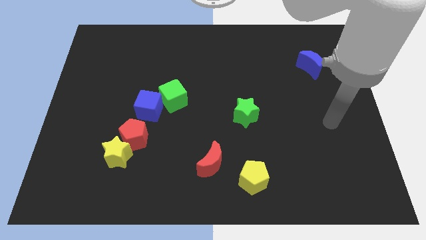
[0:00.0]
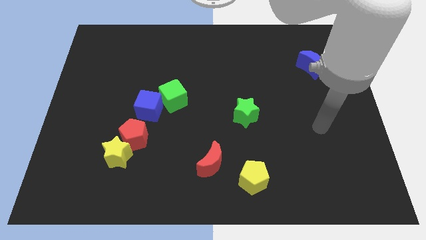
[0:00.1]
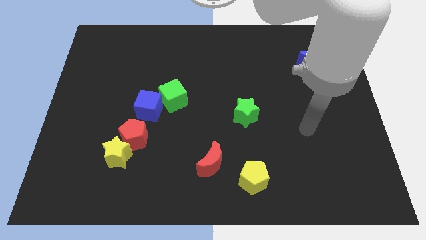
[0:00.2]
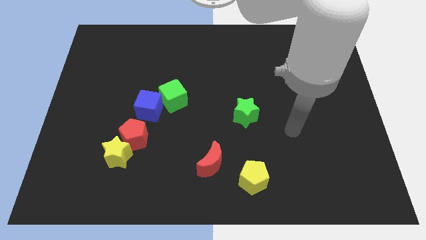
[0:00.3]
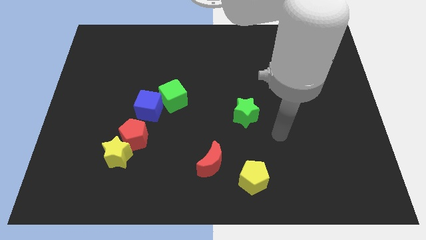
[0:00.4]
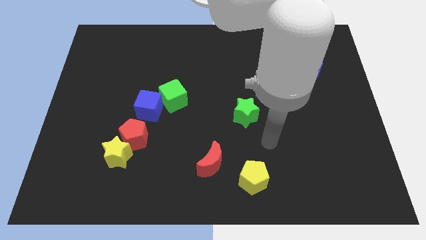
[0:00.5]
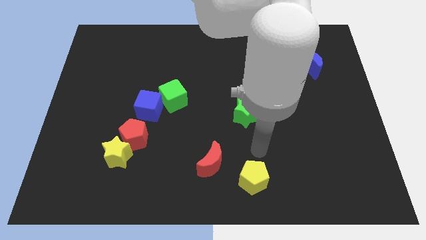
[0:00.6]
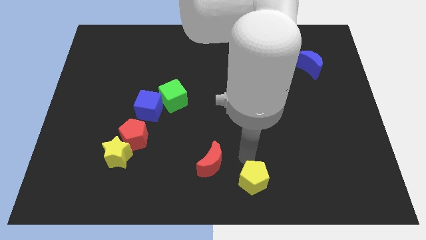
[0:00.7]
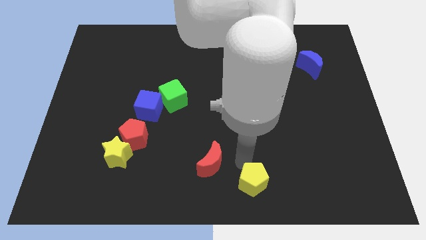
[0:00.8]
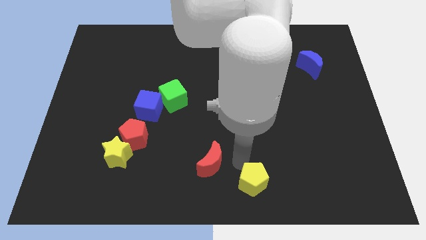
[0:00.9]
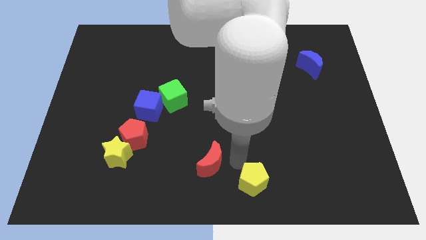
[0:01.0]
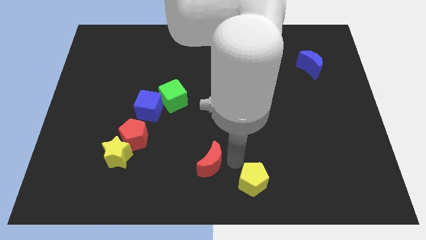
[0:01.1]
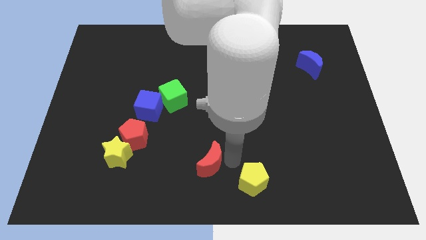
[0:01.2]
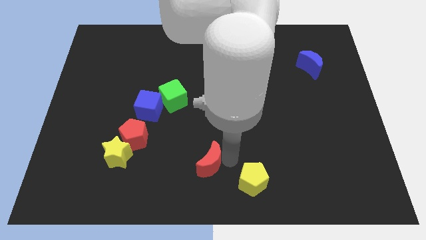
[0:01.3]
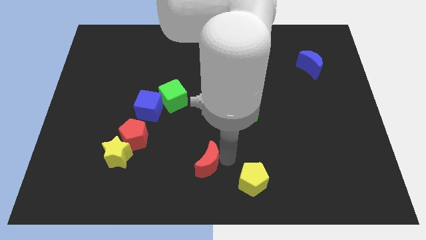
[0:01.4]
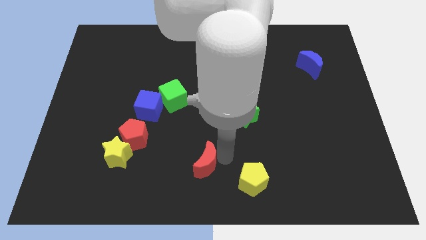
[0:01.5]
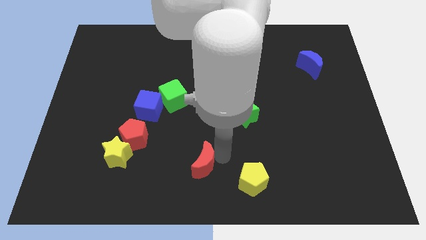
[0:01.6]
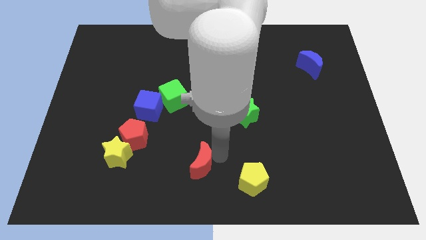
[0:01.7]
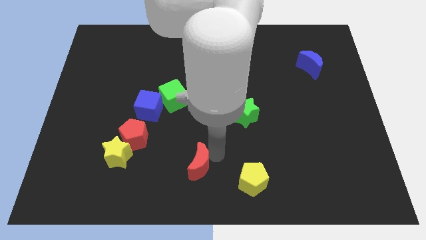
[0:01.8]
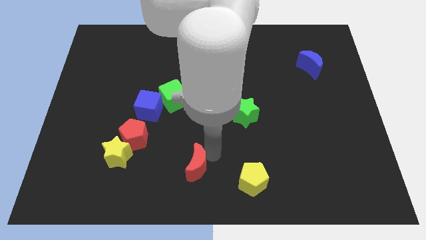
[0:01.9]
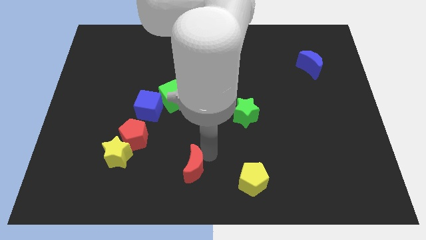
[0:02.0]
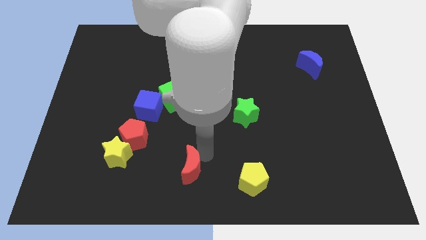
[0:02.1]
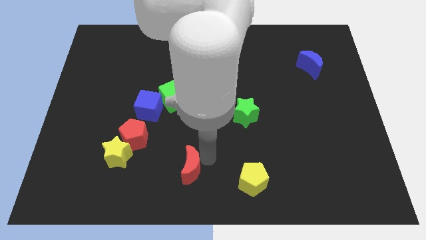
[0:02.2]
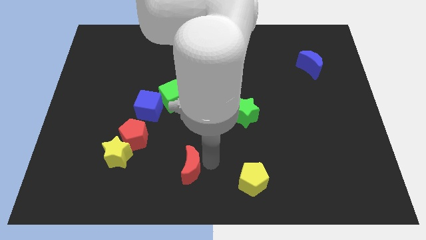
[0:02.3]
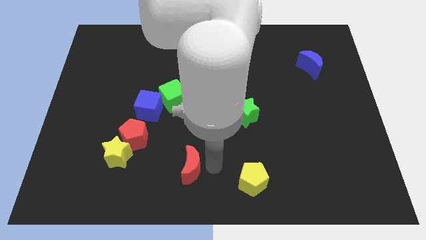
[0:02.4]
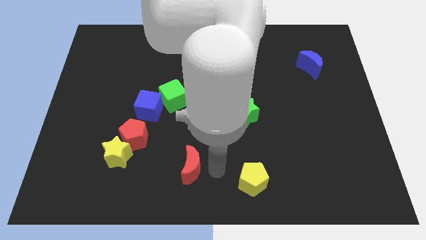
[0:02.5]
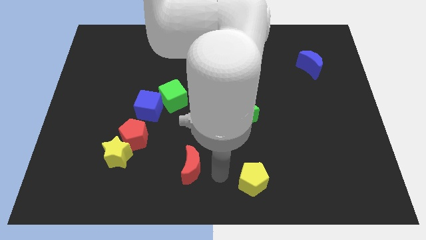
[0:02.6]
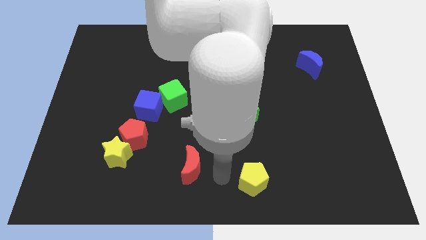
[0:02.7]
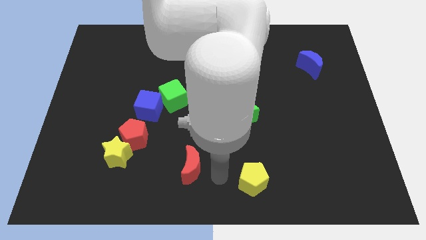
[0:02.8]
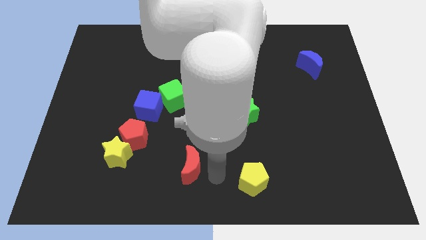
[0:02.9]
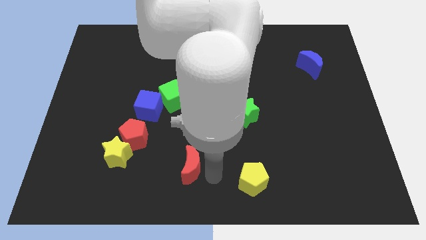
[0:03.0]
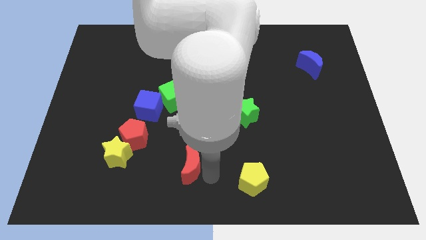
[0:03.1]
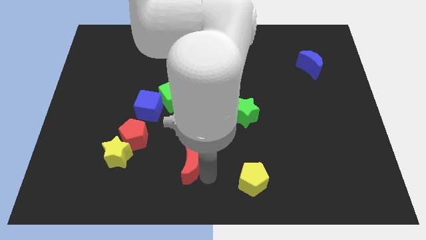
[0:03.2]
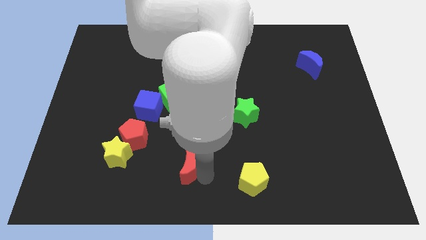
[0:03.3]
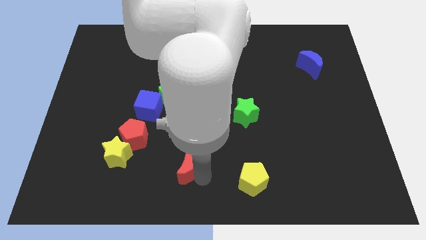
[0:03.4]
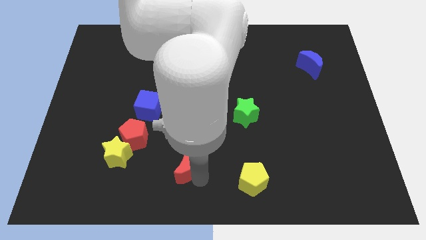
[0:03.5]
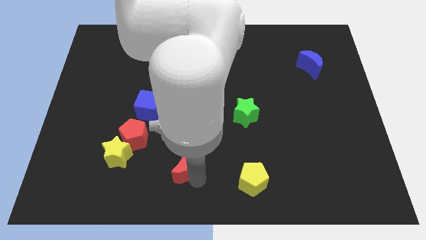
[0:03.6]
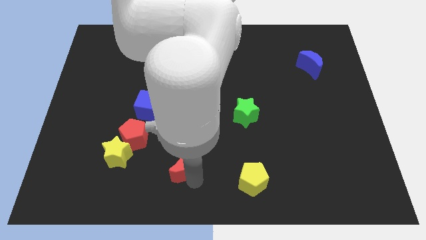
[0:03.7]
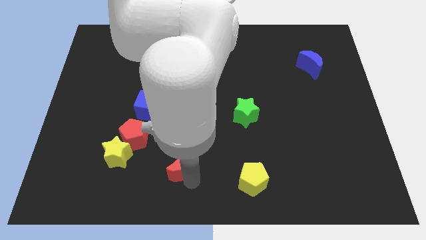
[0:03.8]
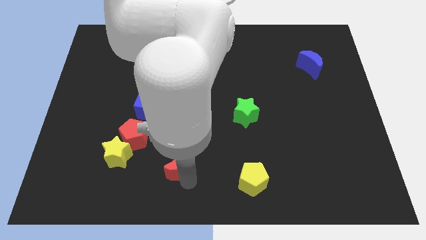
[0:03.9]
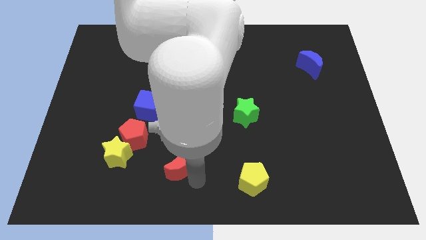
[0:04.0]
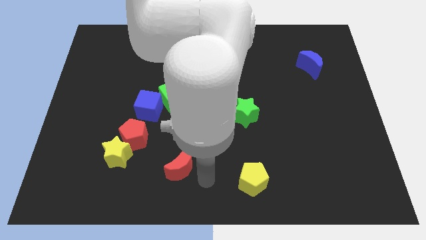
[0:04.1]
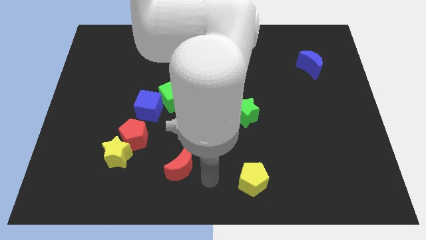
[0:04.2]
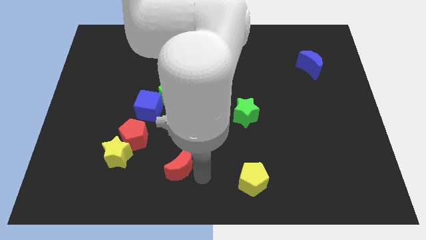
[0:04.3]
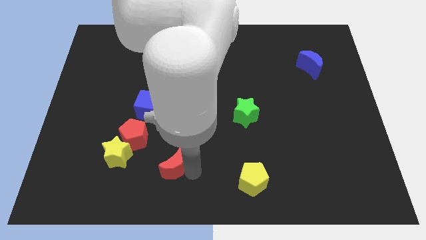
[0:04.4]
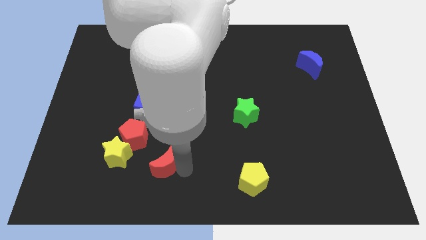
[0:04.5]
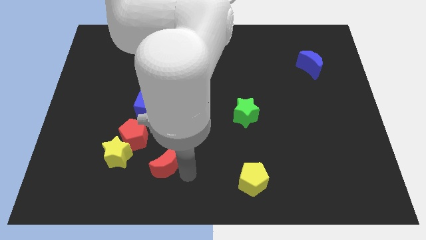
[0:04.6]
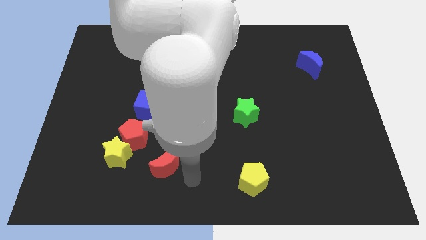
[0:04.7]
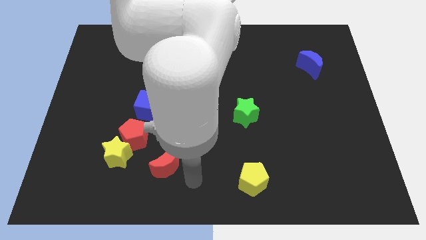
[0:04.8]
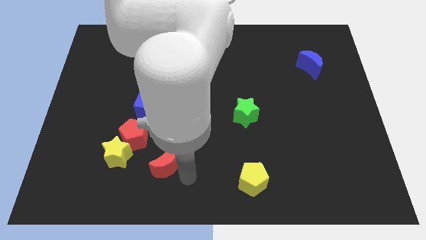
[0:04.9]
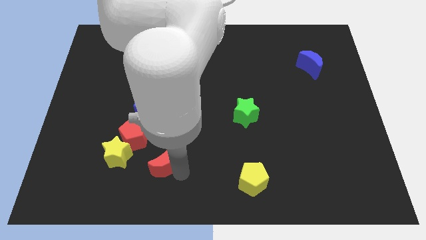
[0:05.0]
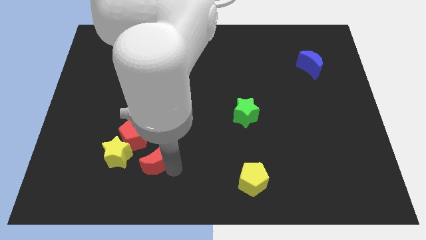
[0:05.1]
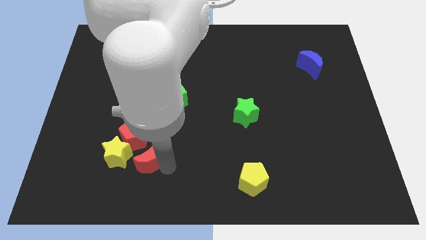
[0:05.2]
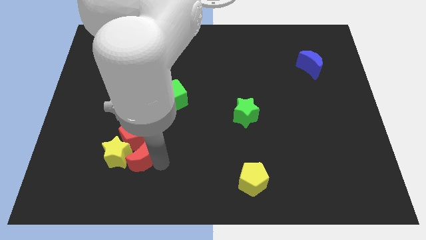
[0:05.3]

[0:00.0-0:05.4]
put the red moon close to the yellow star

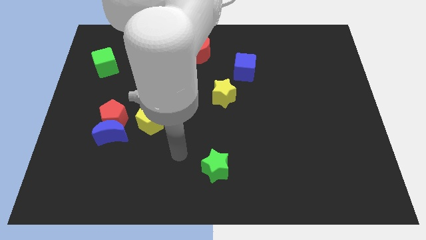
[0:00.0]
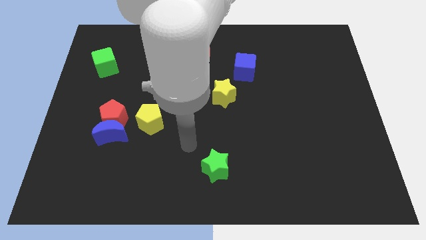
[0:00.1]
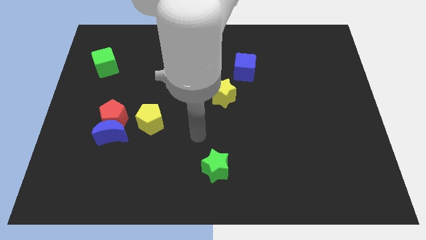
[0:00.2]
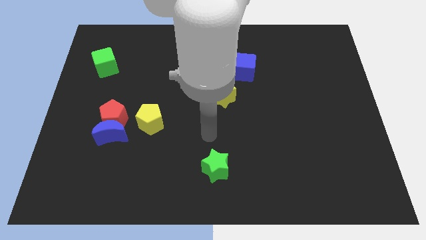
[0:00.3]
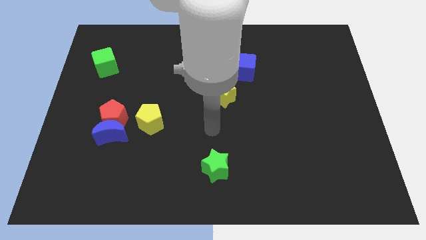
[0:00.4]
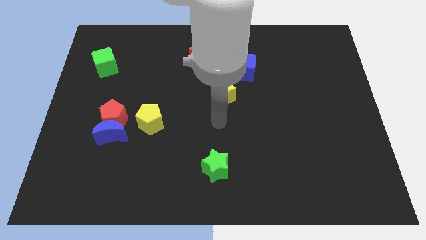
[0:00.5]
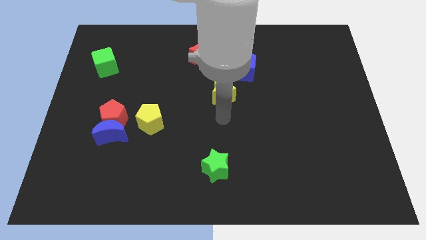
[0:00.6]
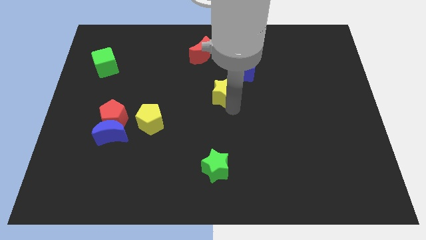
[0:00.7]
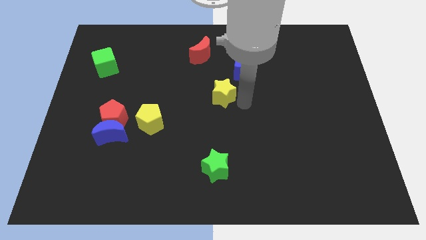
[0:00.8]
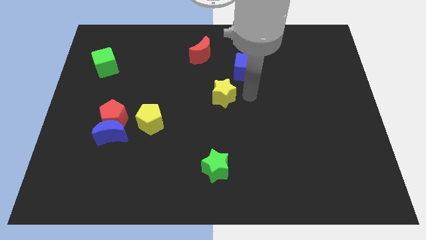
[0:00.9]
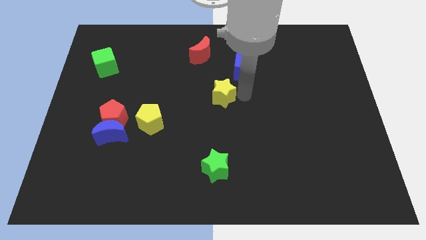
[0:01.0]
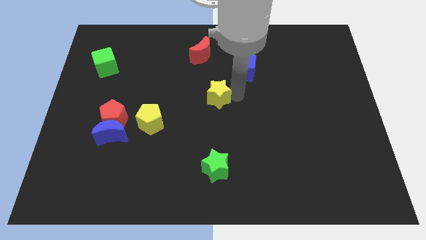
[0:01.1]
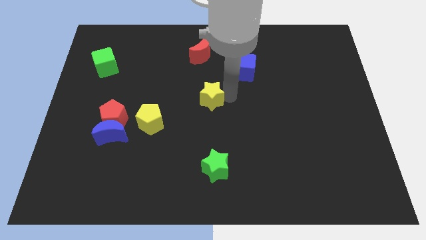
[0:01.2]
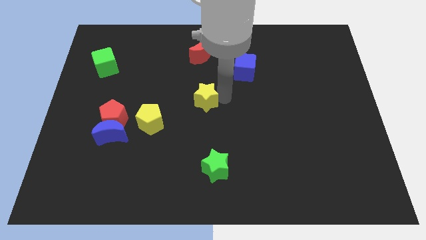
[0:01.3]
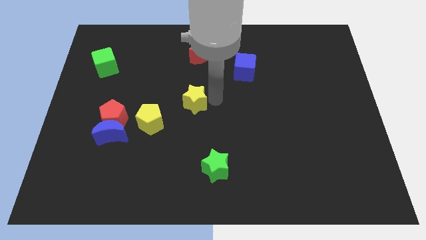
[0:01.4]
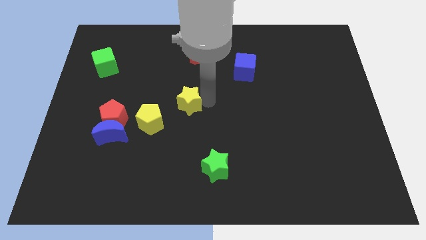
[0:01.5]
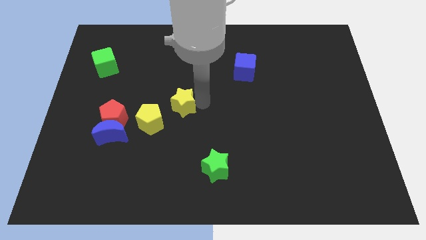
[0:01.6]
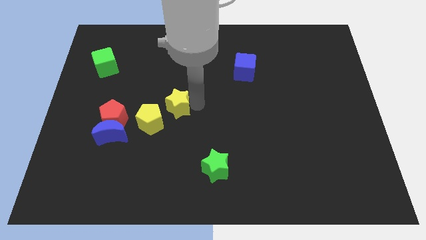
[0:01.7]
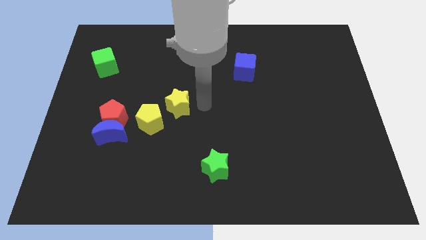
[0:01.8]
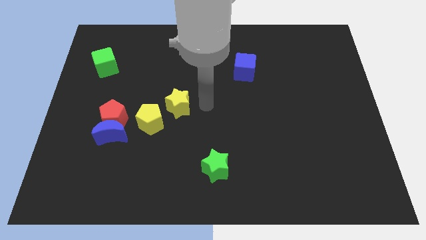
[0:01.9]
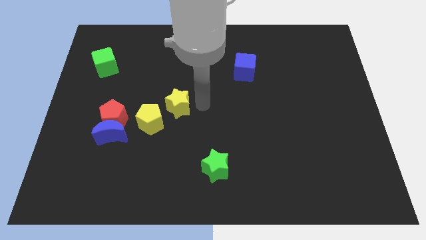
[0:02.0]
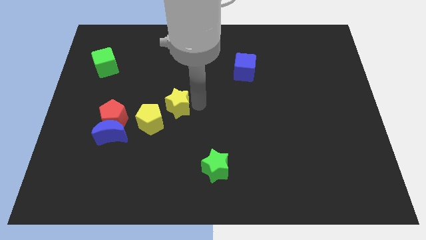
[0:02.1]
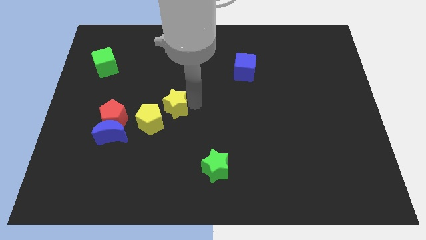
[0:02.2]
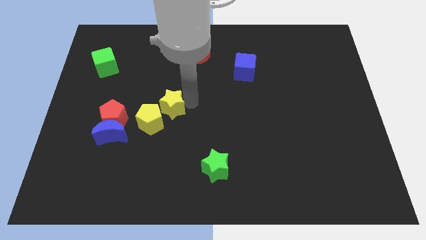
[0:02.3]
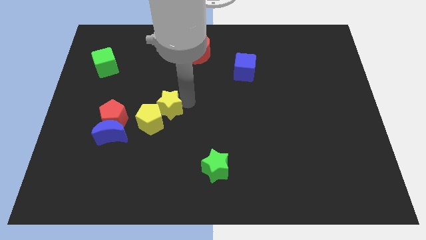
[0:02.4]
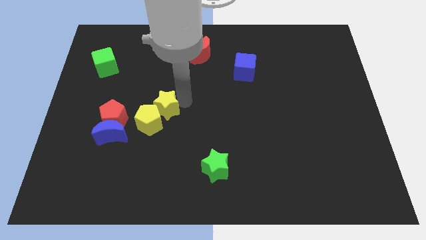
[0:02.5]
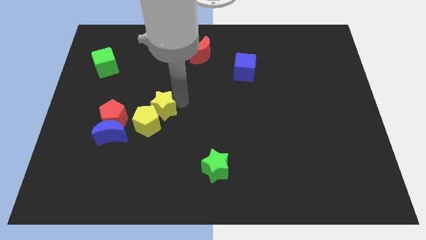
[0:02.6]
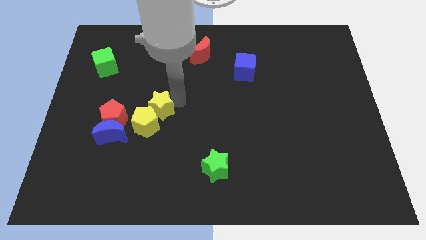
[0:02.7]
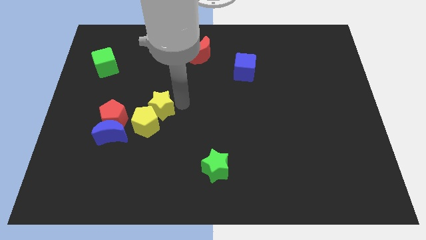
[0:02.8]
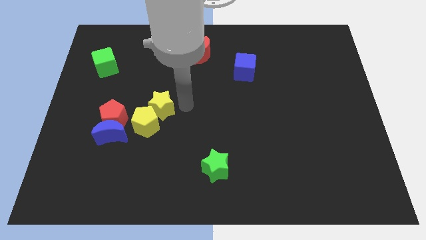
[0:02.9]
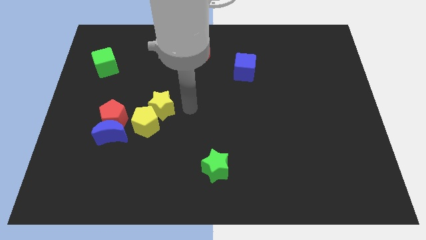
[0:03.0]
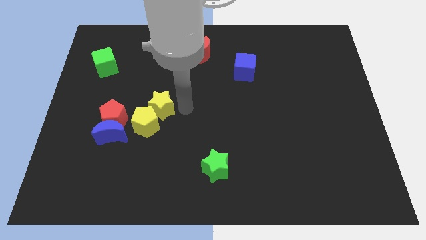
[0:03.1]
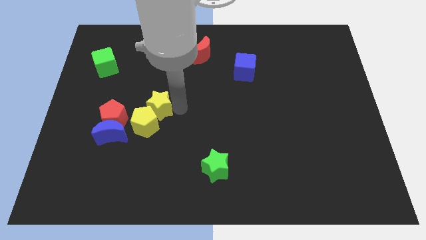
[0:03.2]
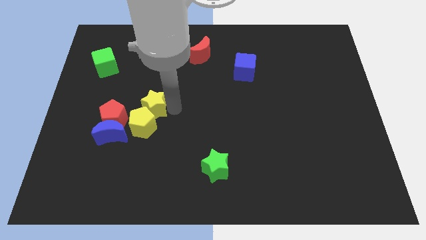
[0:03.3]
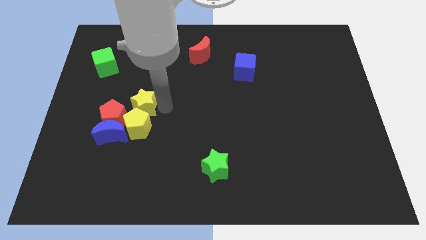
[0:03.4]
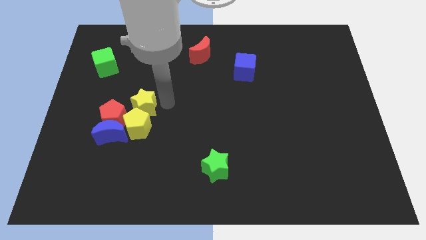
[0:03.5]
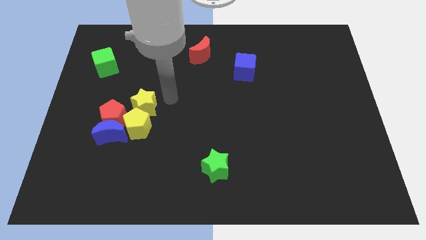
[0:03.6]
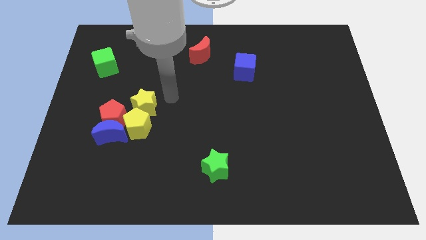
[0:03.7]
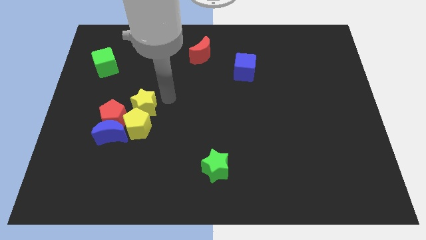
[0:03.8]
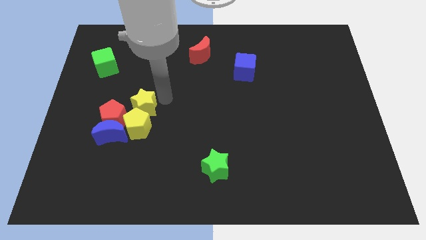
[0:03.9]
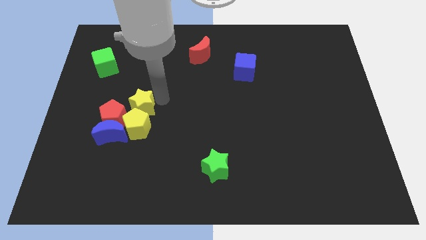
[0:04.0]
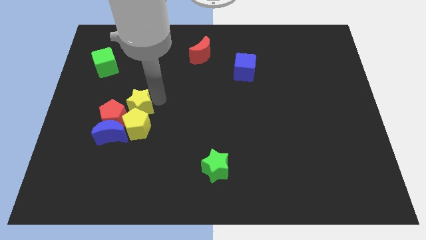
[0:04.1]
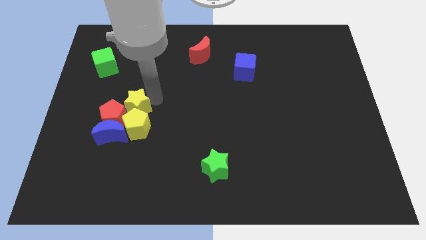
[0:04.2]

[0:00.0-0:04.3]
push the yellow star close to the red pentagon
